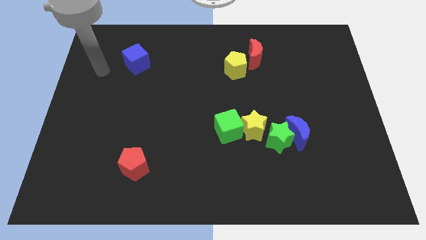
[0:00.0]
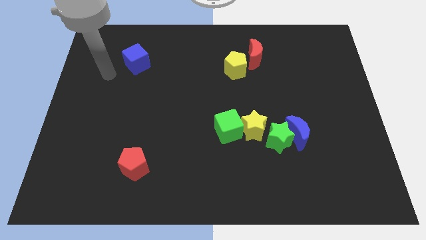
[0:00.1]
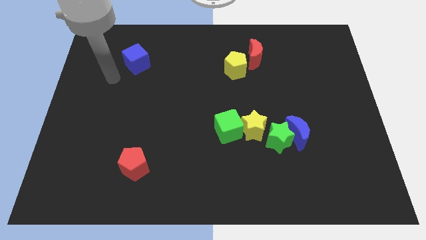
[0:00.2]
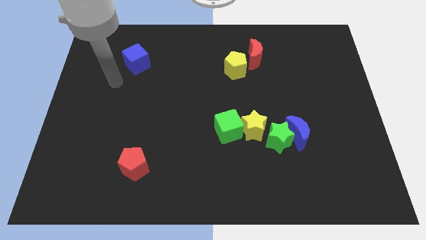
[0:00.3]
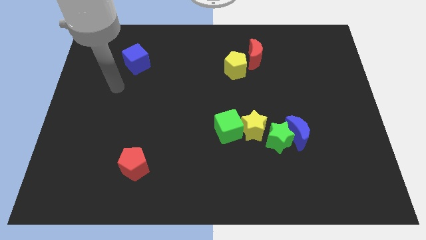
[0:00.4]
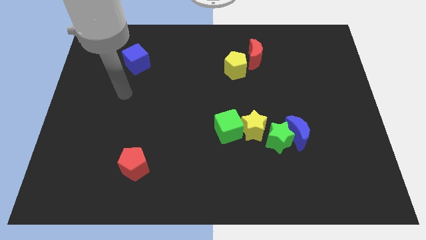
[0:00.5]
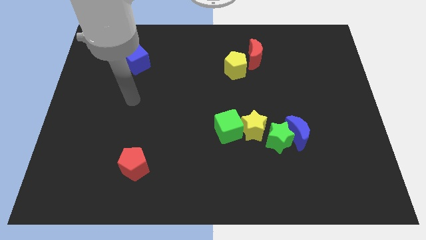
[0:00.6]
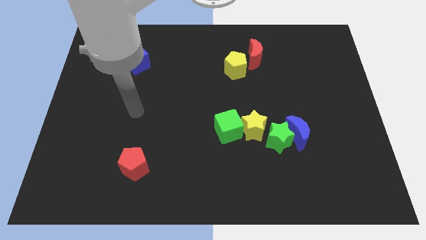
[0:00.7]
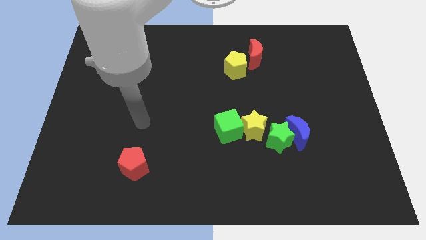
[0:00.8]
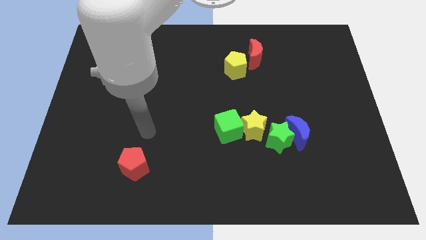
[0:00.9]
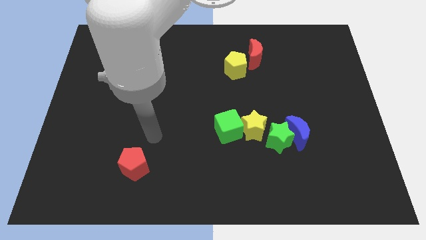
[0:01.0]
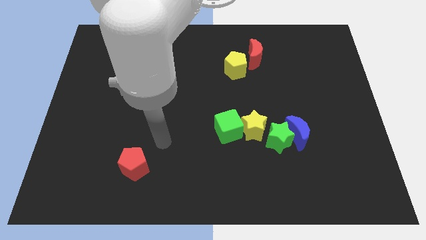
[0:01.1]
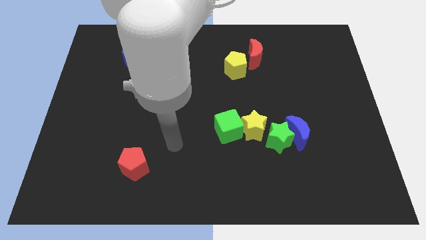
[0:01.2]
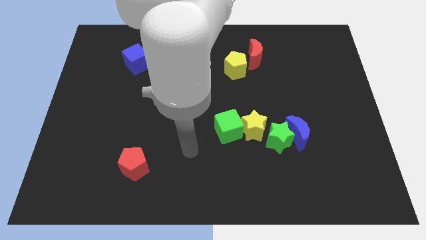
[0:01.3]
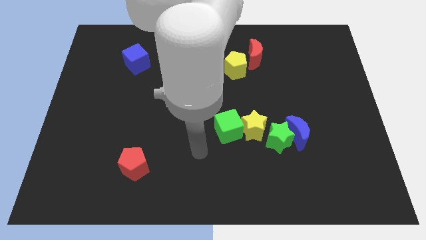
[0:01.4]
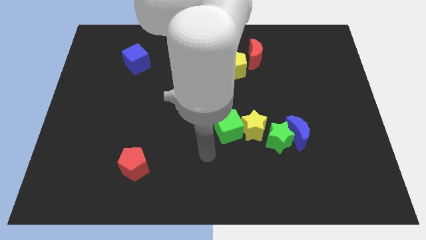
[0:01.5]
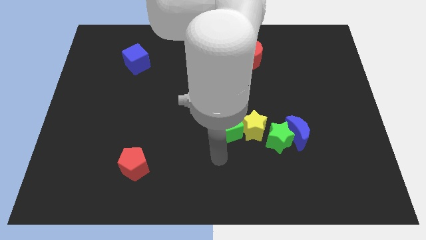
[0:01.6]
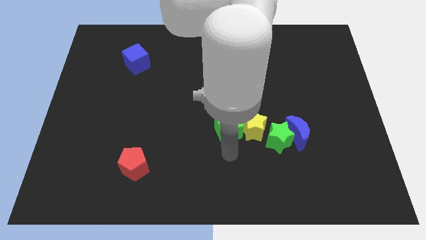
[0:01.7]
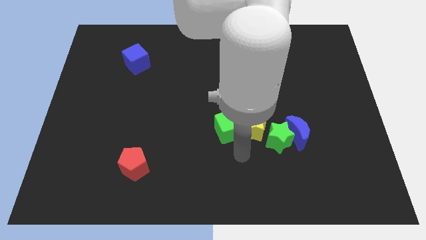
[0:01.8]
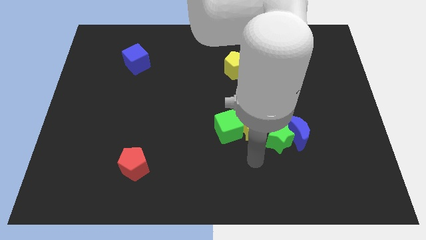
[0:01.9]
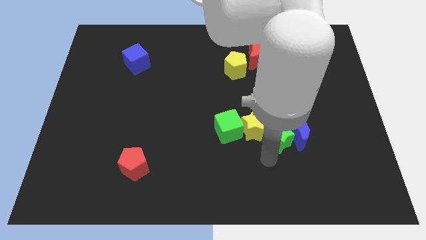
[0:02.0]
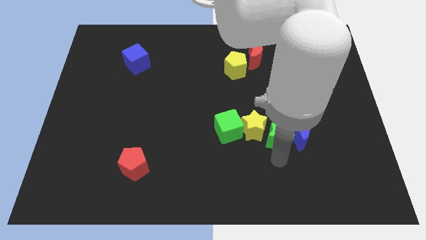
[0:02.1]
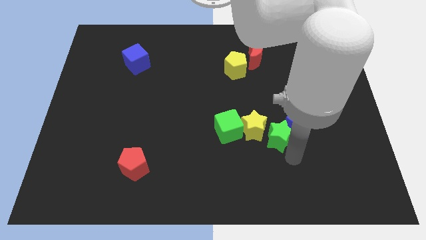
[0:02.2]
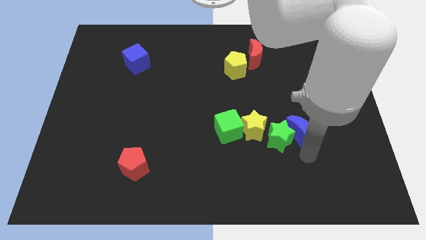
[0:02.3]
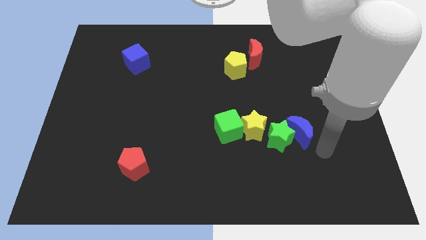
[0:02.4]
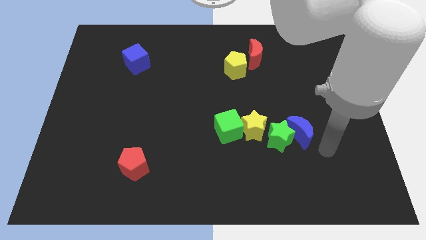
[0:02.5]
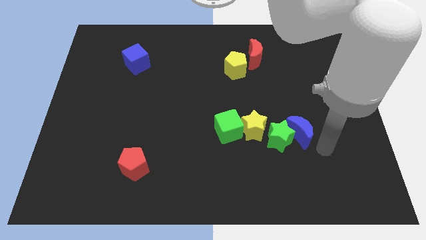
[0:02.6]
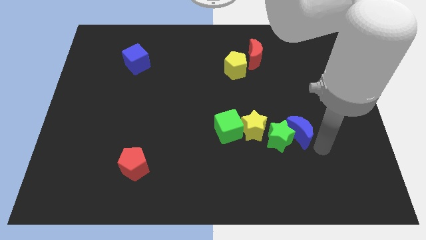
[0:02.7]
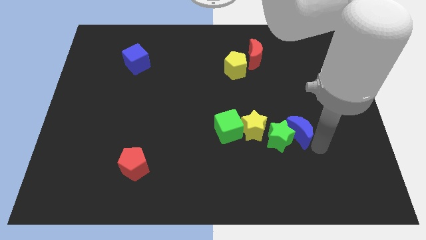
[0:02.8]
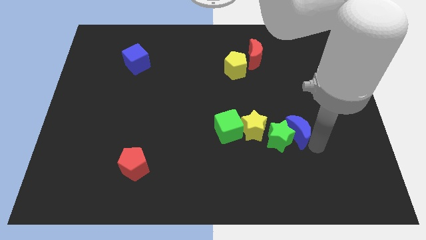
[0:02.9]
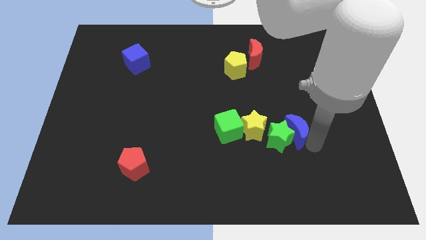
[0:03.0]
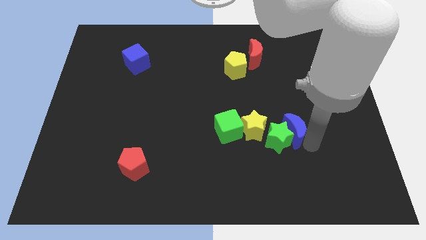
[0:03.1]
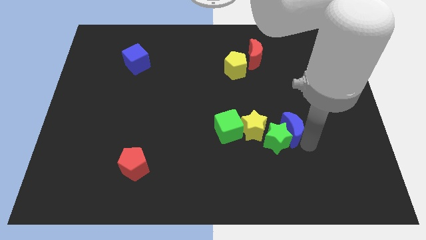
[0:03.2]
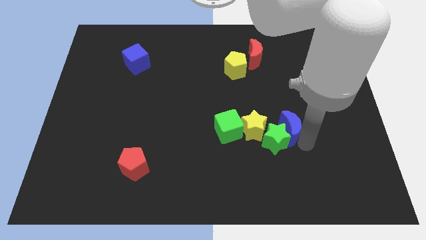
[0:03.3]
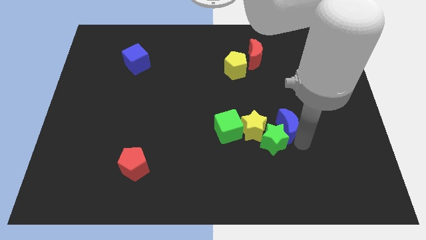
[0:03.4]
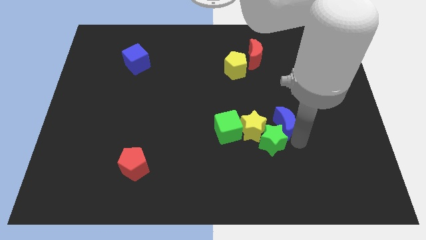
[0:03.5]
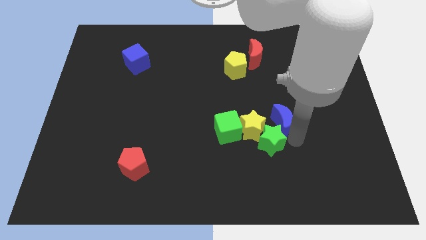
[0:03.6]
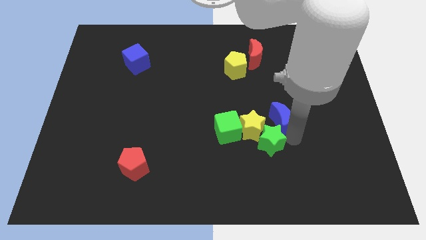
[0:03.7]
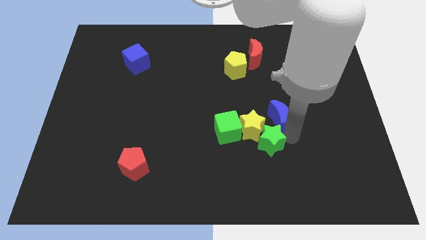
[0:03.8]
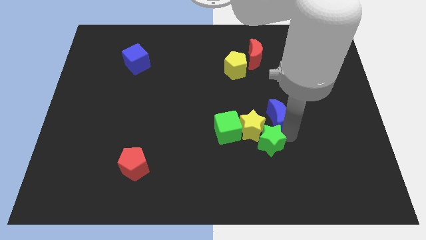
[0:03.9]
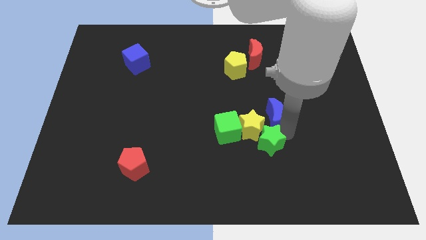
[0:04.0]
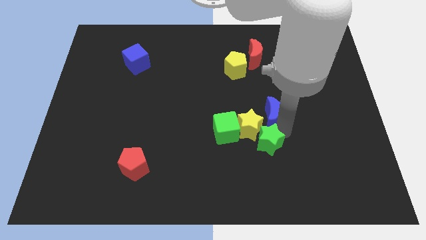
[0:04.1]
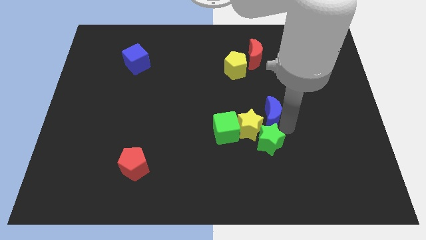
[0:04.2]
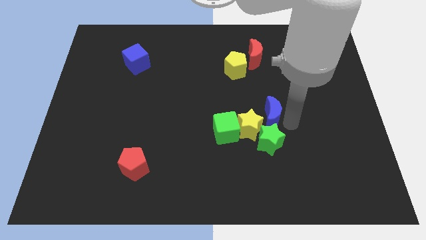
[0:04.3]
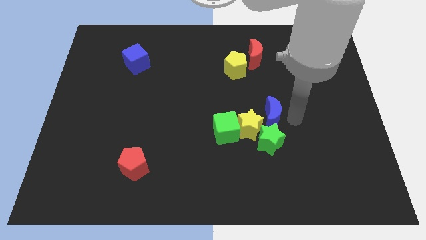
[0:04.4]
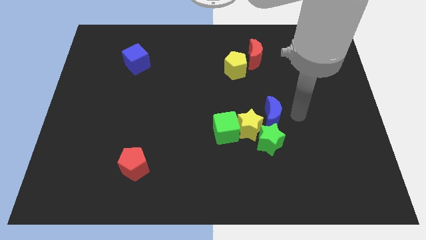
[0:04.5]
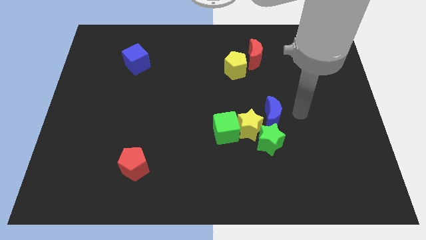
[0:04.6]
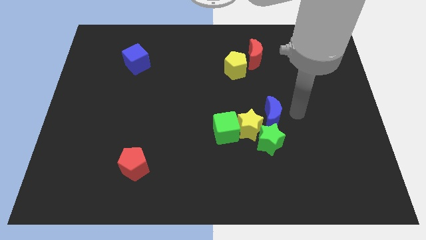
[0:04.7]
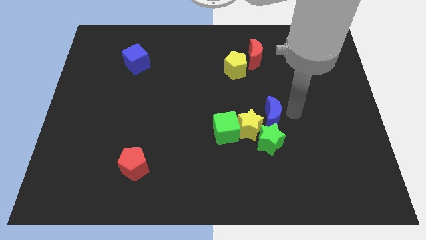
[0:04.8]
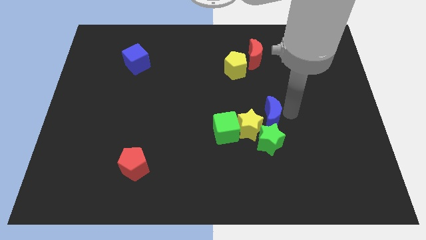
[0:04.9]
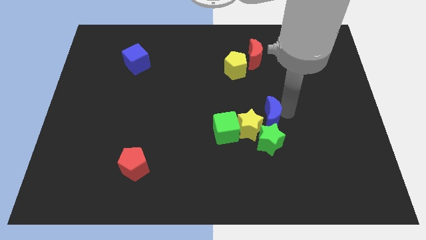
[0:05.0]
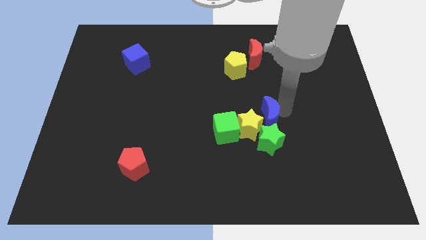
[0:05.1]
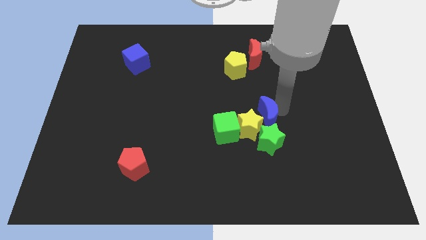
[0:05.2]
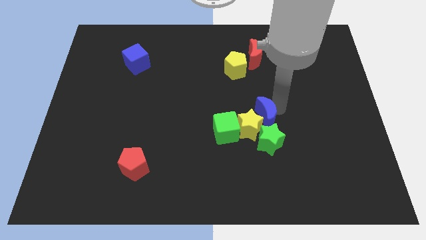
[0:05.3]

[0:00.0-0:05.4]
put the blue moon diagonally up and to the left of the green star

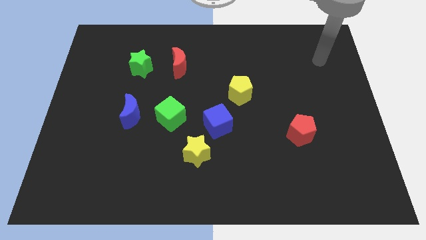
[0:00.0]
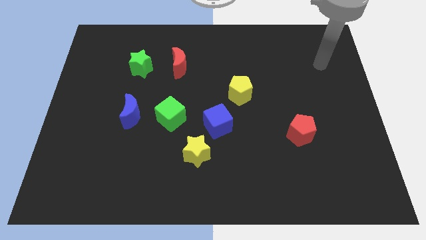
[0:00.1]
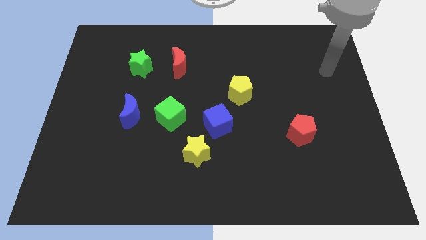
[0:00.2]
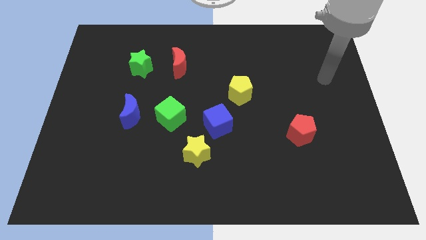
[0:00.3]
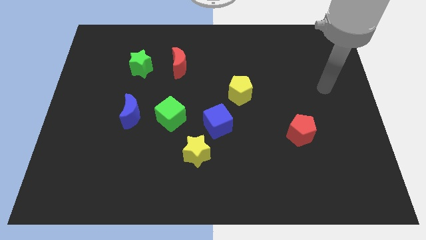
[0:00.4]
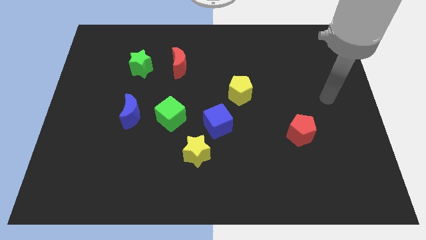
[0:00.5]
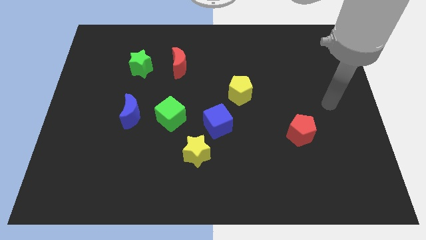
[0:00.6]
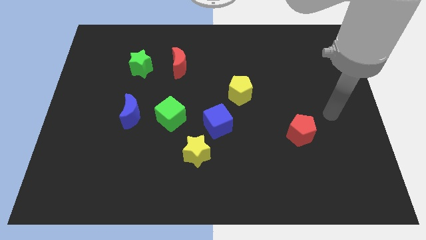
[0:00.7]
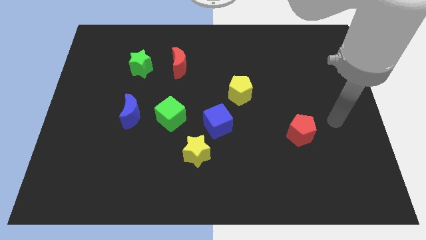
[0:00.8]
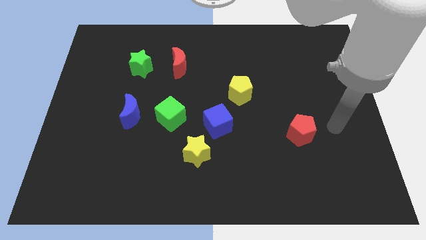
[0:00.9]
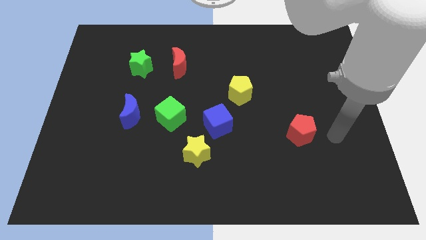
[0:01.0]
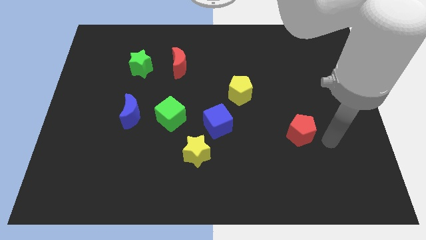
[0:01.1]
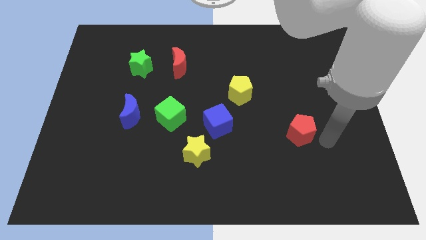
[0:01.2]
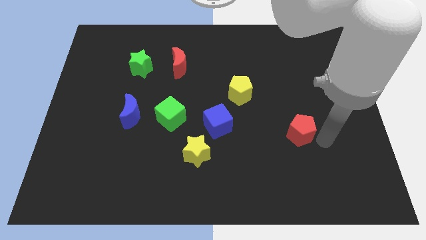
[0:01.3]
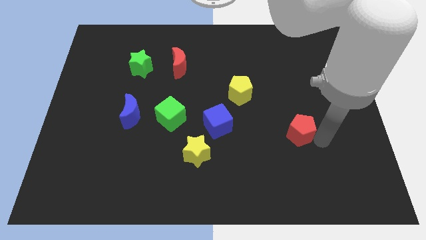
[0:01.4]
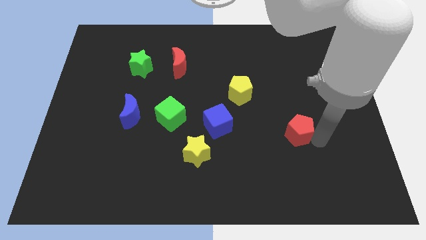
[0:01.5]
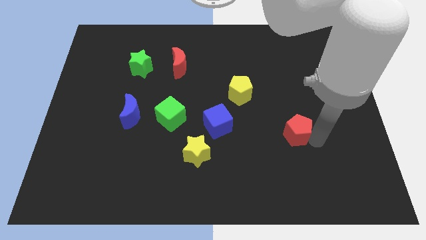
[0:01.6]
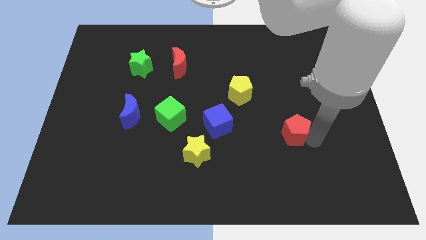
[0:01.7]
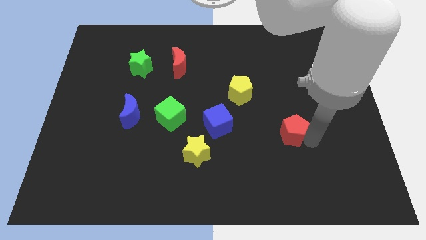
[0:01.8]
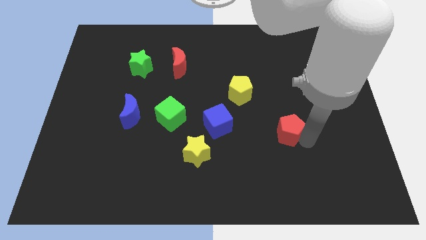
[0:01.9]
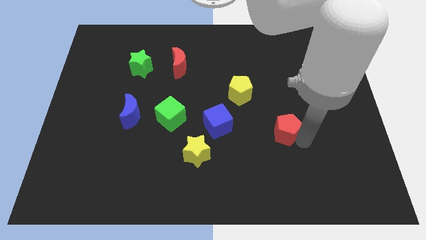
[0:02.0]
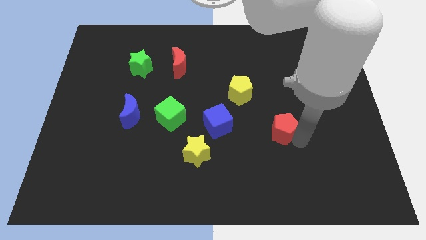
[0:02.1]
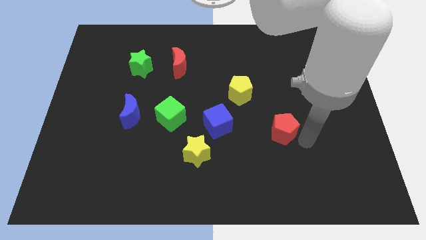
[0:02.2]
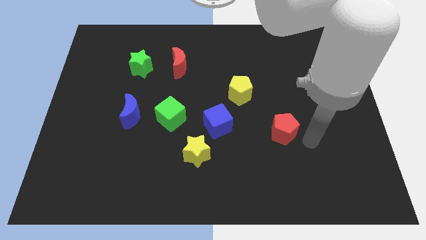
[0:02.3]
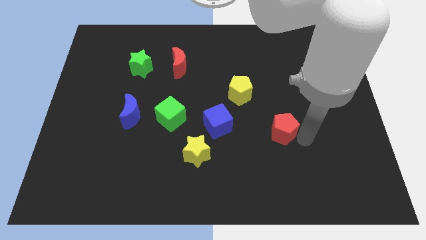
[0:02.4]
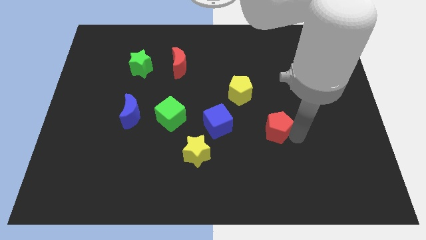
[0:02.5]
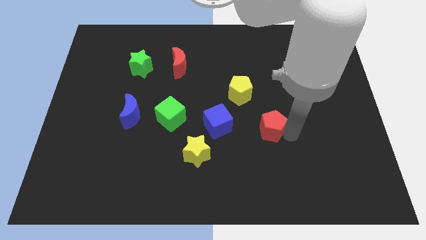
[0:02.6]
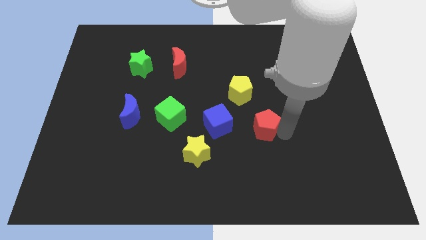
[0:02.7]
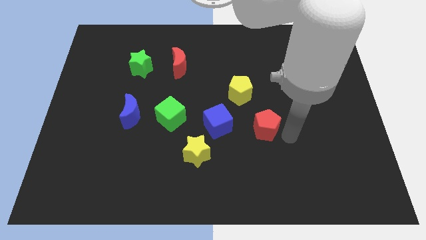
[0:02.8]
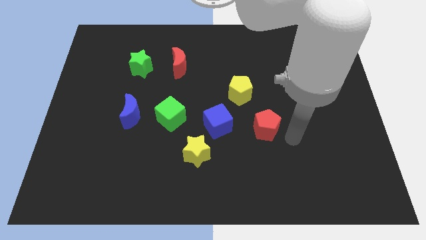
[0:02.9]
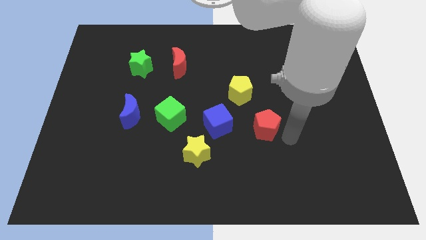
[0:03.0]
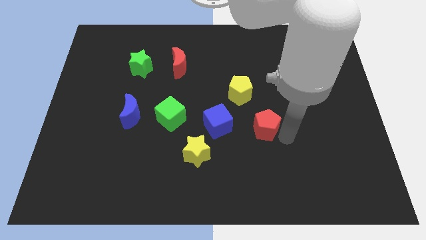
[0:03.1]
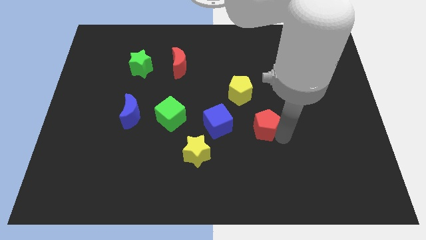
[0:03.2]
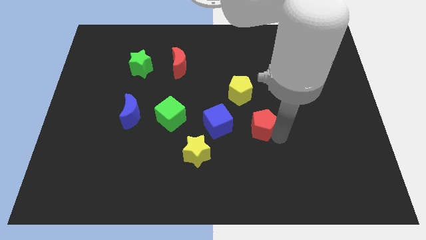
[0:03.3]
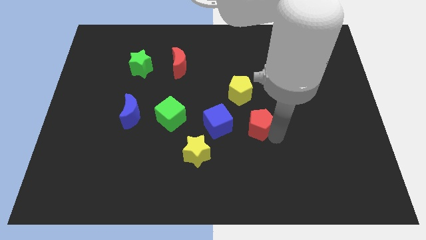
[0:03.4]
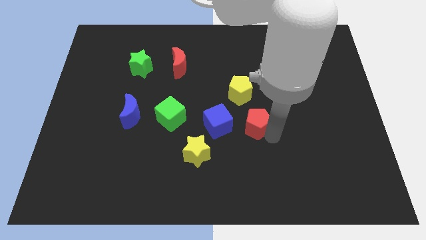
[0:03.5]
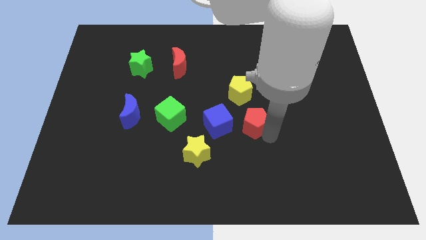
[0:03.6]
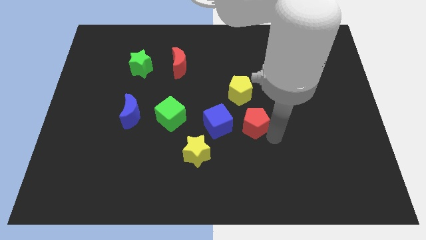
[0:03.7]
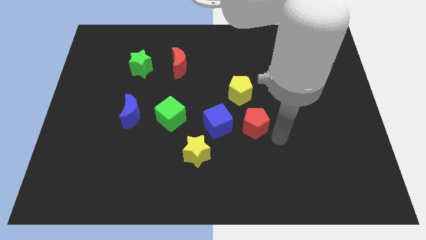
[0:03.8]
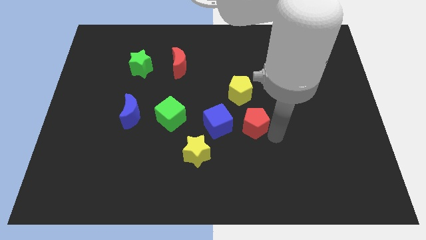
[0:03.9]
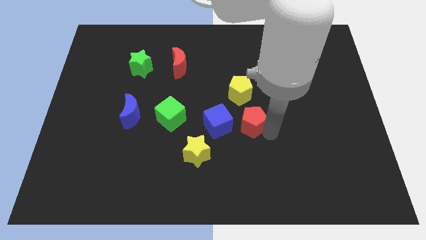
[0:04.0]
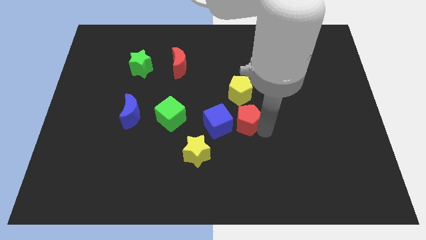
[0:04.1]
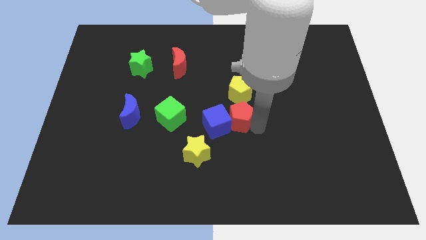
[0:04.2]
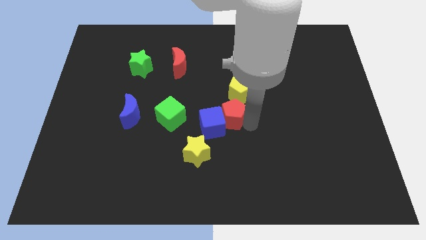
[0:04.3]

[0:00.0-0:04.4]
slide the red pentagon to the bottom left of the yellow pentagon
